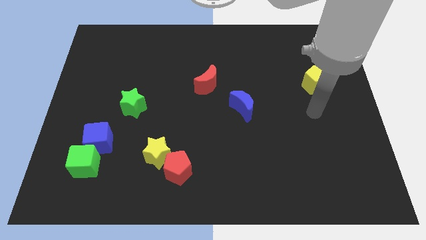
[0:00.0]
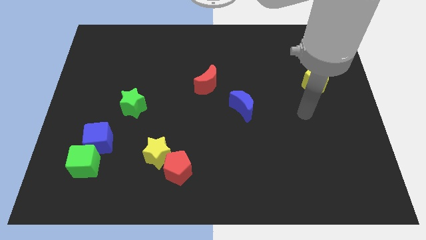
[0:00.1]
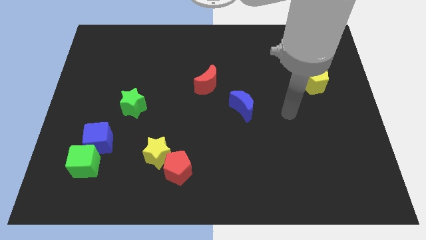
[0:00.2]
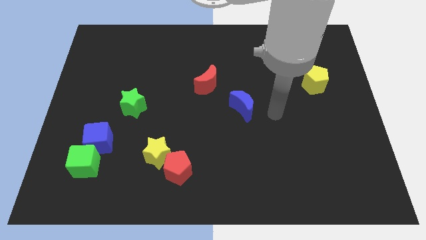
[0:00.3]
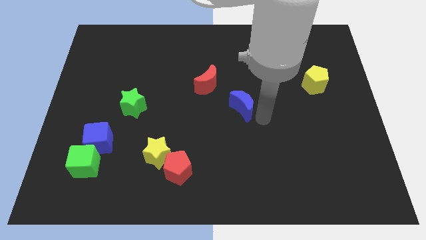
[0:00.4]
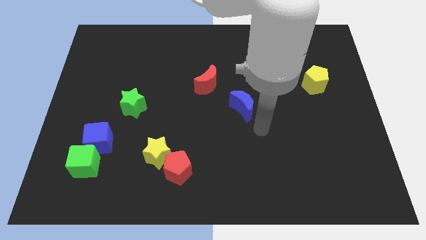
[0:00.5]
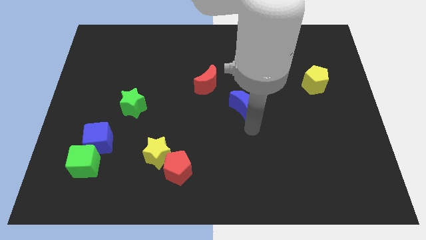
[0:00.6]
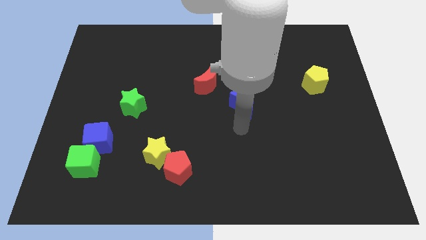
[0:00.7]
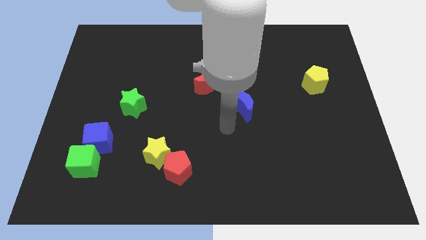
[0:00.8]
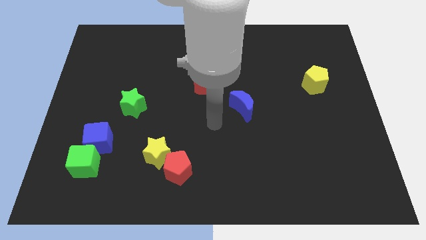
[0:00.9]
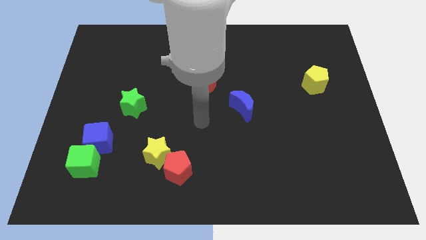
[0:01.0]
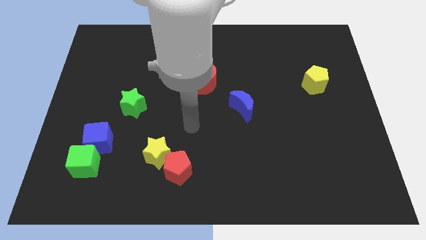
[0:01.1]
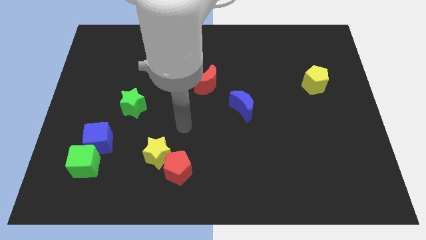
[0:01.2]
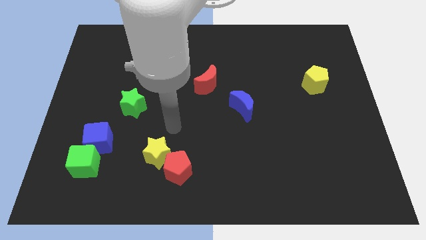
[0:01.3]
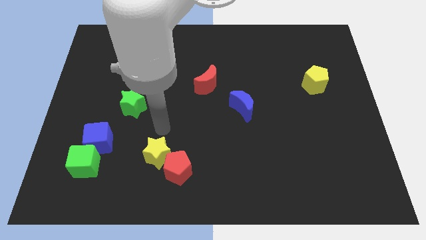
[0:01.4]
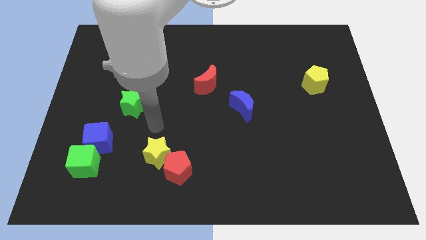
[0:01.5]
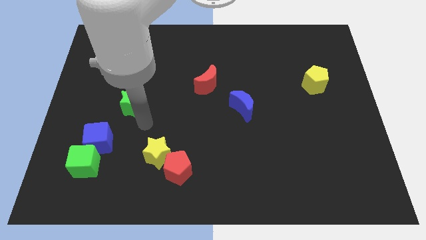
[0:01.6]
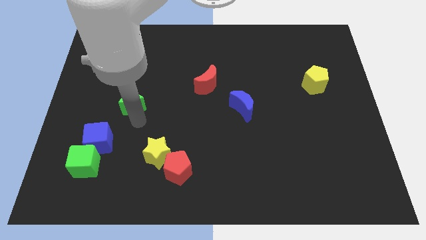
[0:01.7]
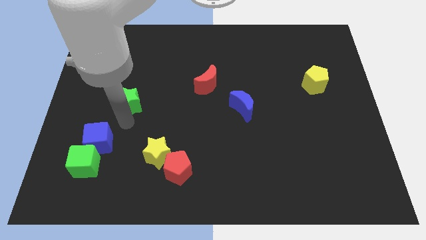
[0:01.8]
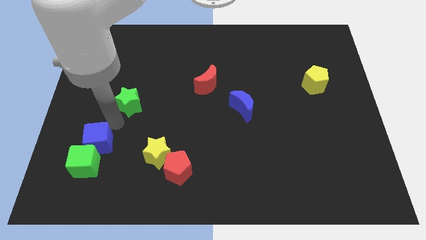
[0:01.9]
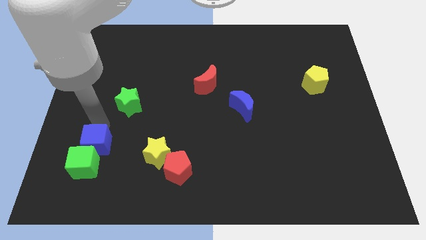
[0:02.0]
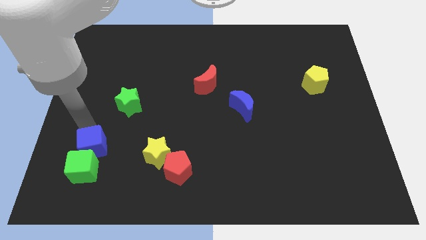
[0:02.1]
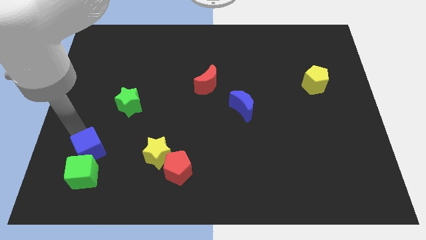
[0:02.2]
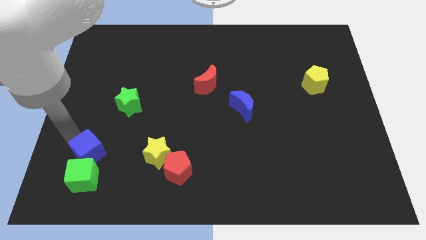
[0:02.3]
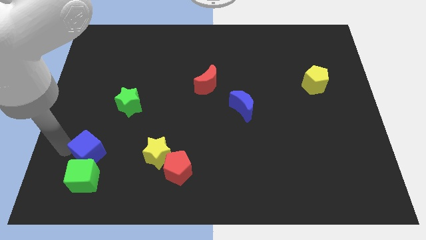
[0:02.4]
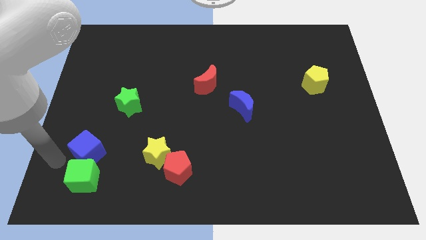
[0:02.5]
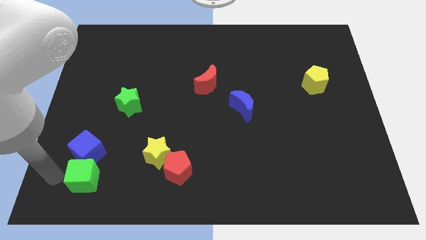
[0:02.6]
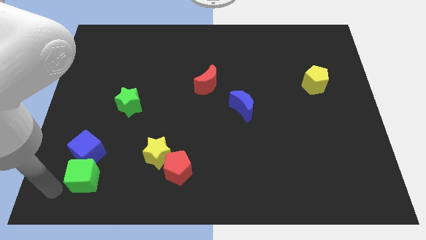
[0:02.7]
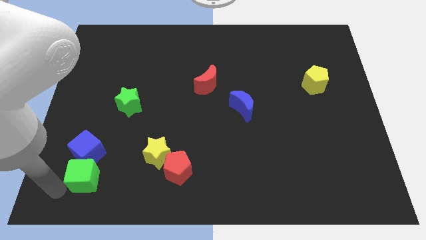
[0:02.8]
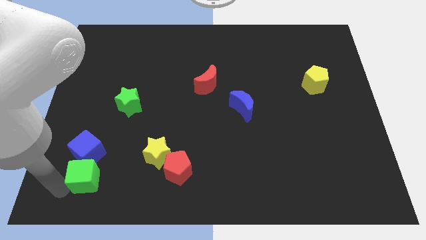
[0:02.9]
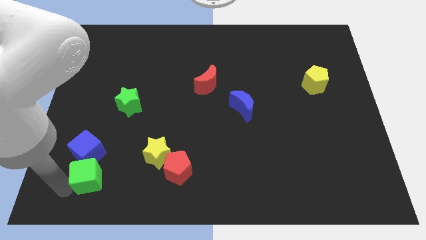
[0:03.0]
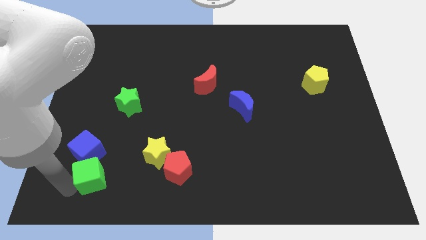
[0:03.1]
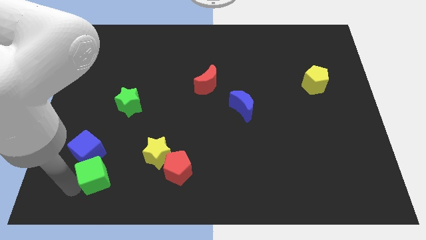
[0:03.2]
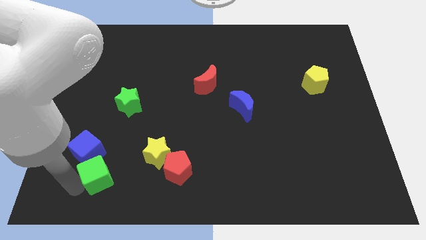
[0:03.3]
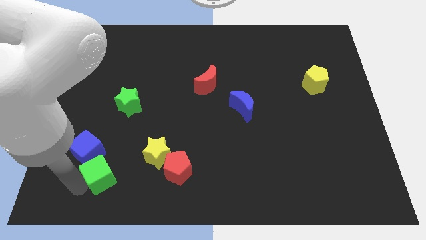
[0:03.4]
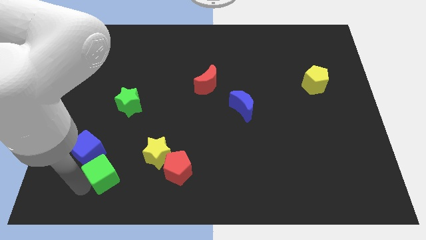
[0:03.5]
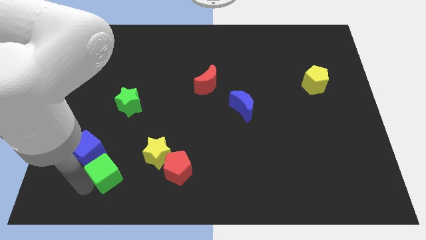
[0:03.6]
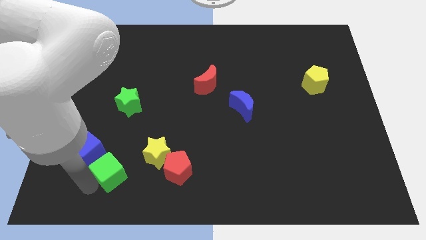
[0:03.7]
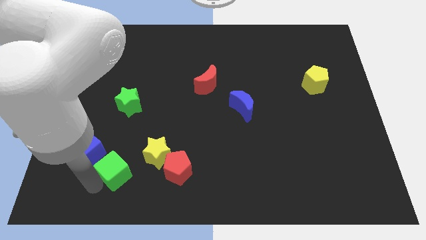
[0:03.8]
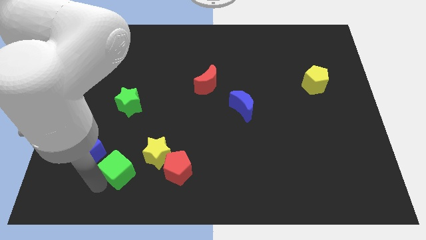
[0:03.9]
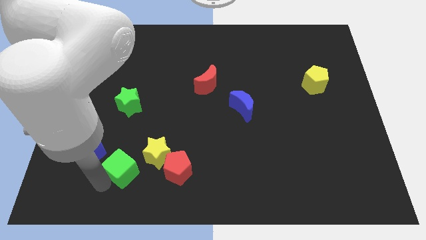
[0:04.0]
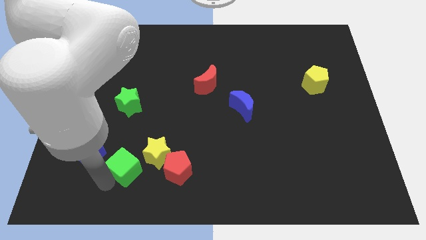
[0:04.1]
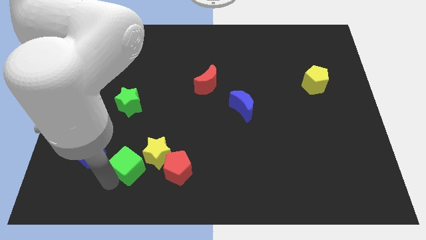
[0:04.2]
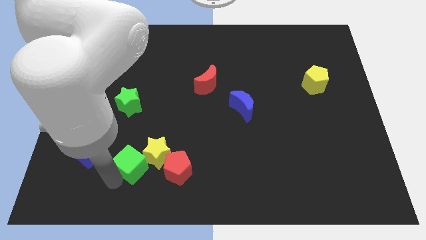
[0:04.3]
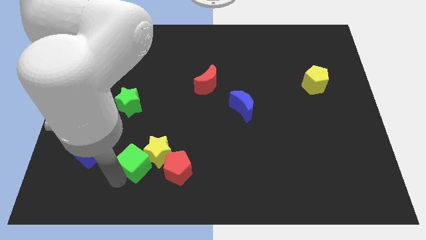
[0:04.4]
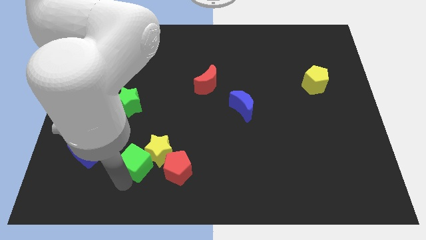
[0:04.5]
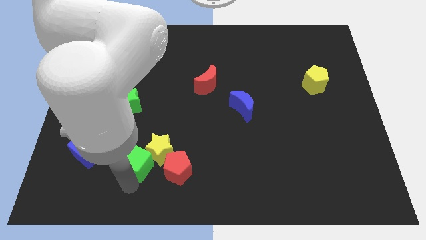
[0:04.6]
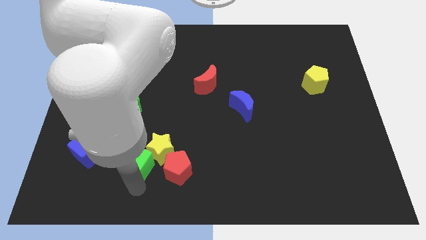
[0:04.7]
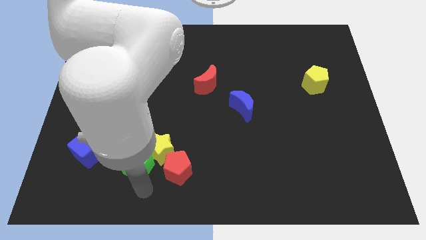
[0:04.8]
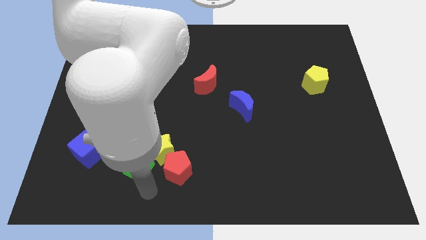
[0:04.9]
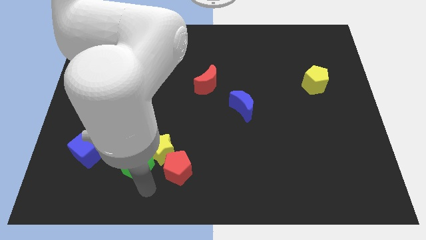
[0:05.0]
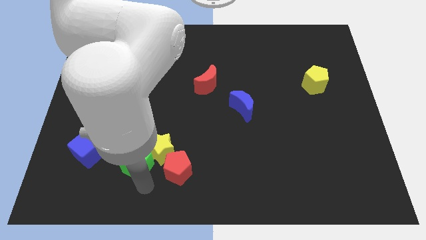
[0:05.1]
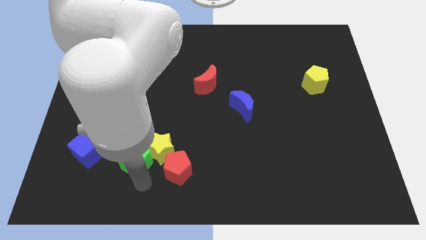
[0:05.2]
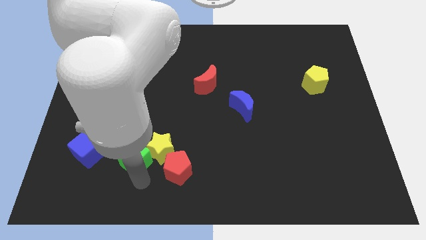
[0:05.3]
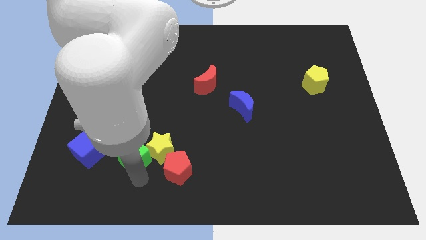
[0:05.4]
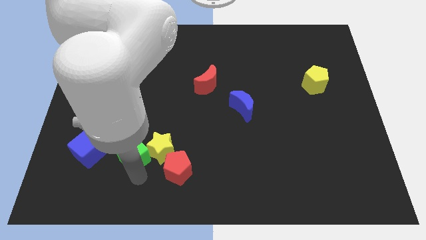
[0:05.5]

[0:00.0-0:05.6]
move the green cube upwards and then right a little

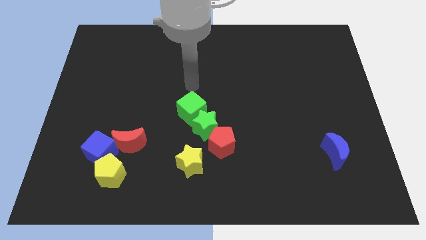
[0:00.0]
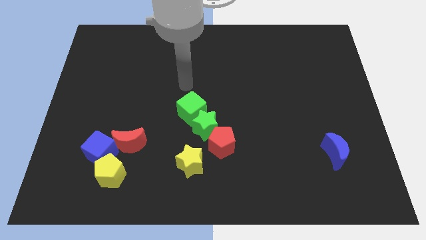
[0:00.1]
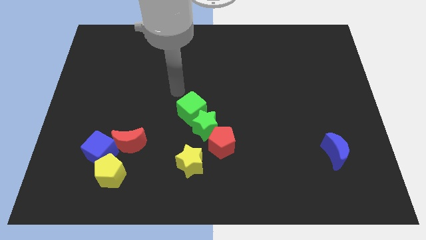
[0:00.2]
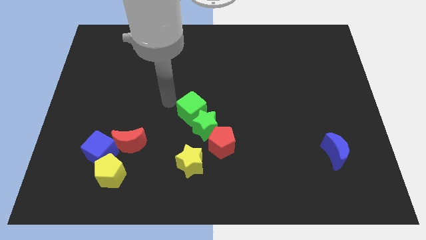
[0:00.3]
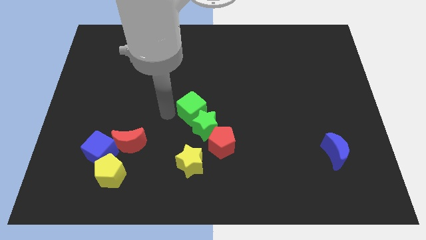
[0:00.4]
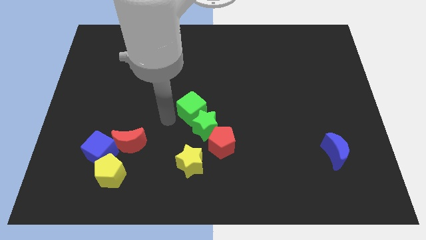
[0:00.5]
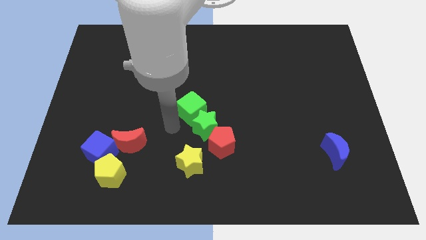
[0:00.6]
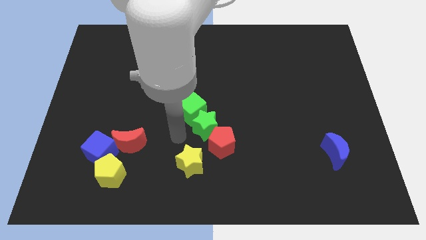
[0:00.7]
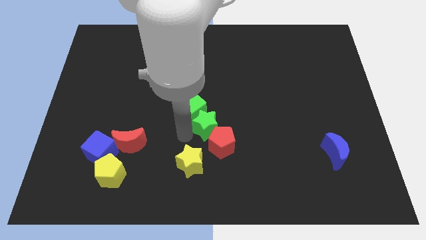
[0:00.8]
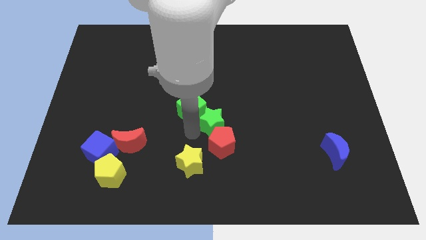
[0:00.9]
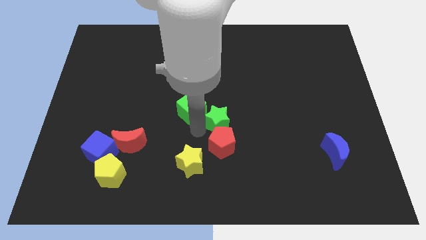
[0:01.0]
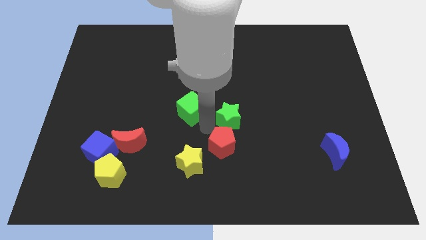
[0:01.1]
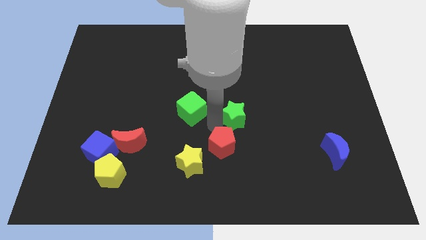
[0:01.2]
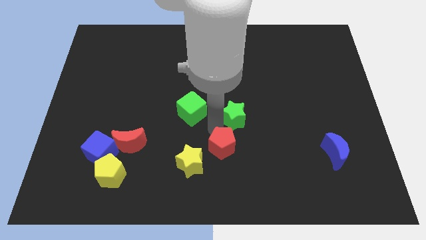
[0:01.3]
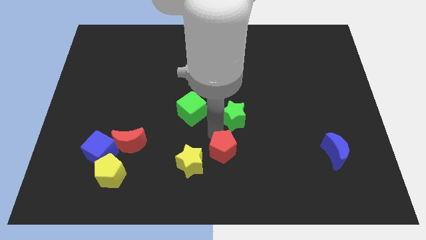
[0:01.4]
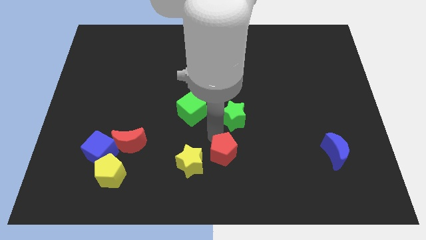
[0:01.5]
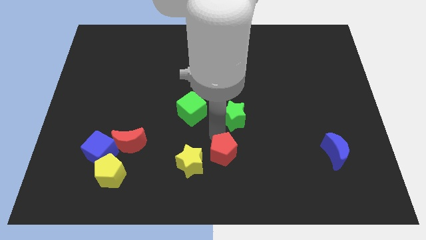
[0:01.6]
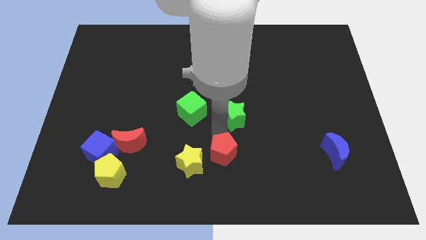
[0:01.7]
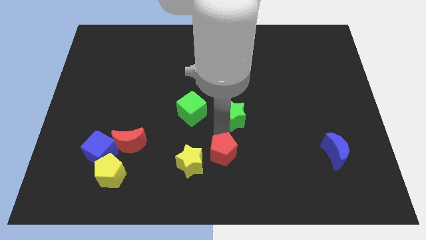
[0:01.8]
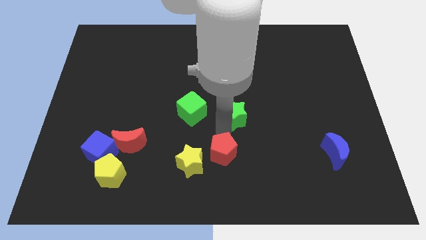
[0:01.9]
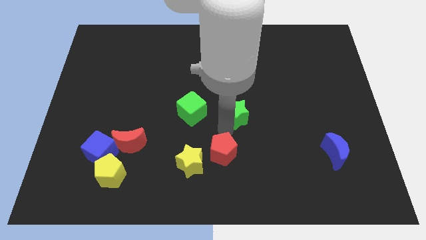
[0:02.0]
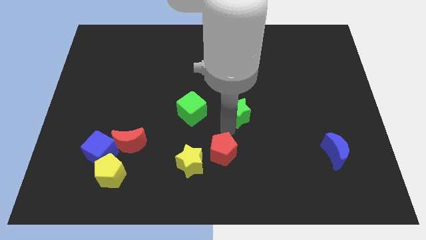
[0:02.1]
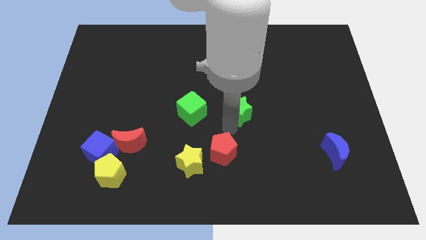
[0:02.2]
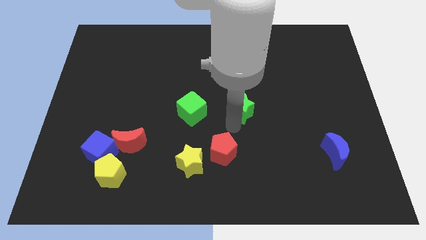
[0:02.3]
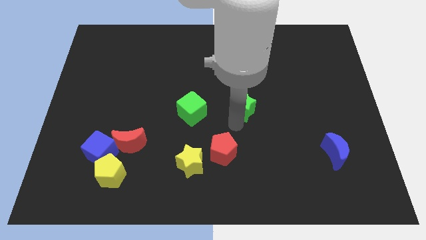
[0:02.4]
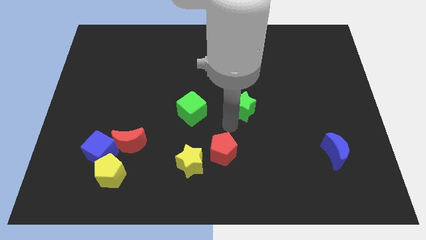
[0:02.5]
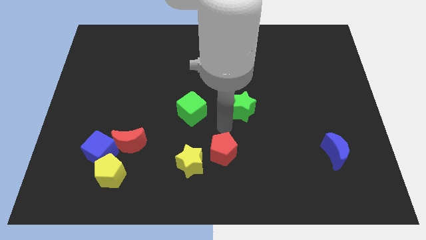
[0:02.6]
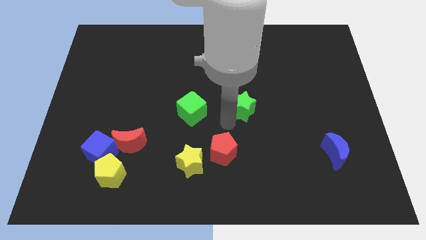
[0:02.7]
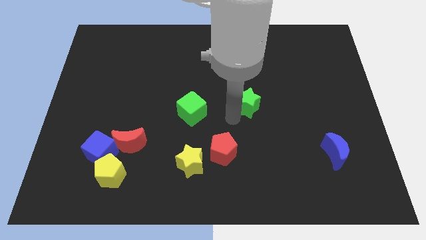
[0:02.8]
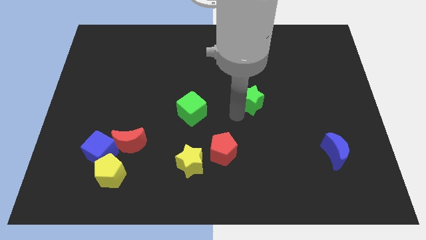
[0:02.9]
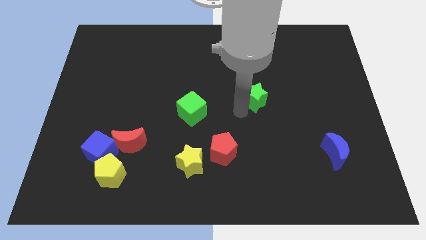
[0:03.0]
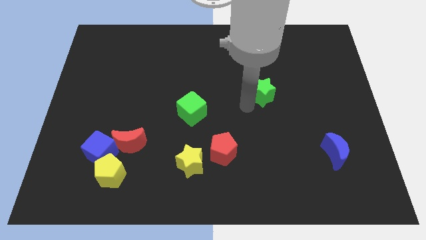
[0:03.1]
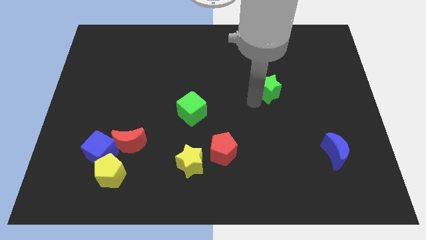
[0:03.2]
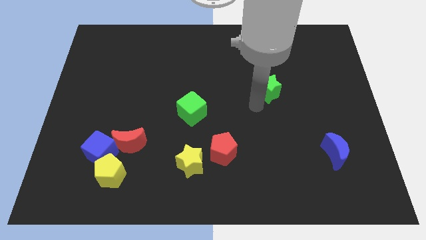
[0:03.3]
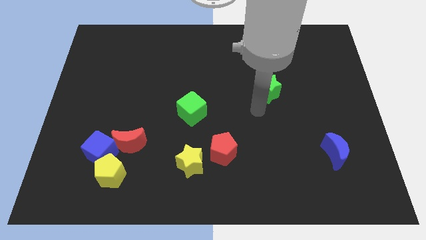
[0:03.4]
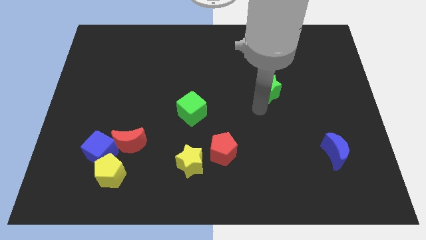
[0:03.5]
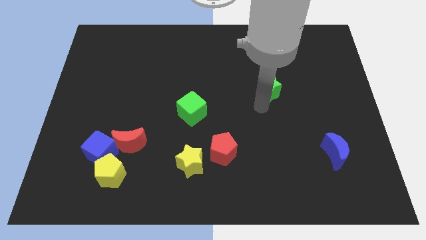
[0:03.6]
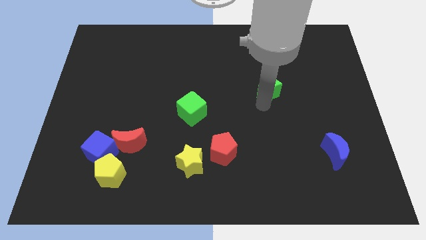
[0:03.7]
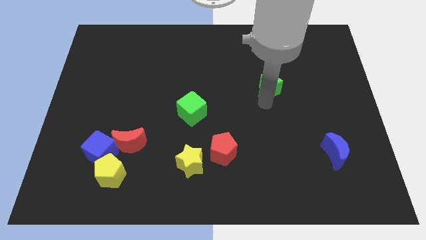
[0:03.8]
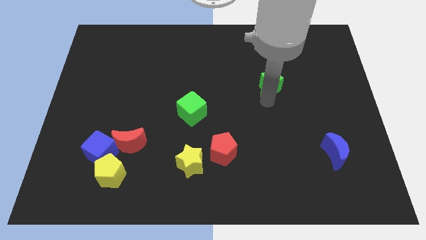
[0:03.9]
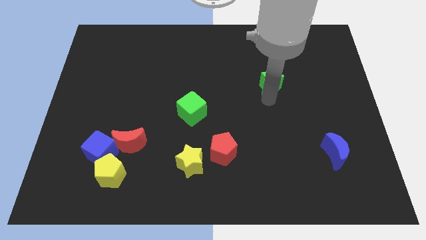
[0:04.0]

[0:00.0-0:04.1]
move the green star upwards and right
